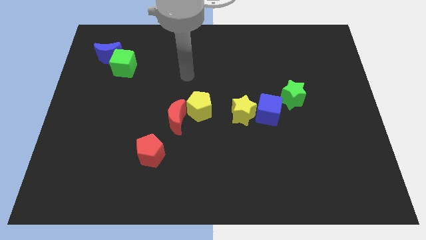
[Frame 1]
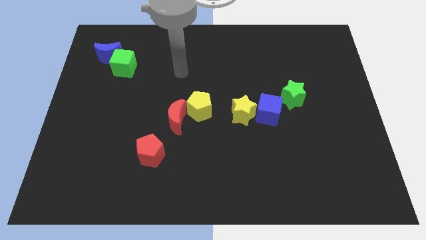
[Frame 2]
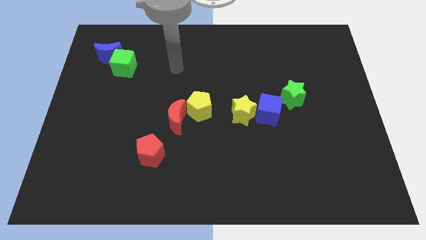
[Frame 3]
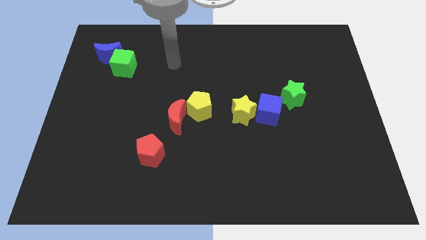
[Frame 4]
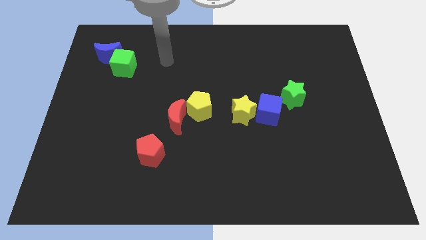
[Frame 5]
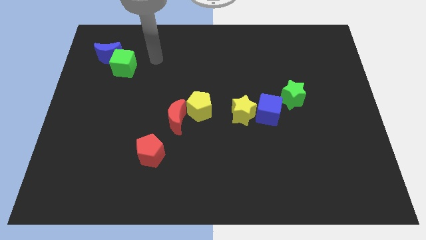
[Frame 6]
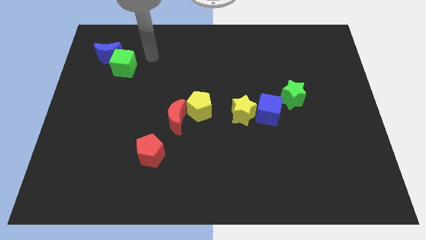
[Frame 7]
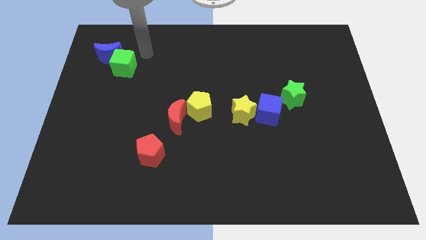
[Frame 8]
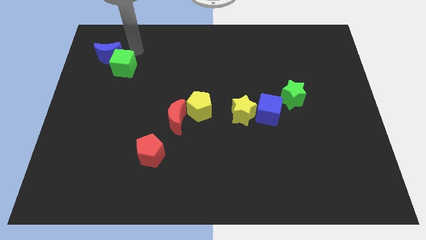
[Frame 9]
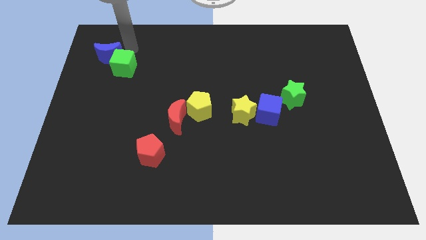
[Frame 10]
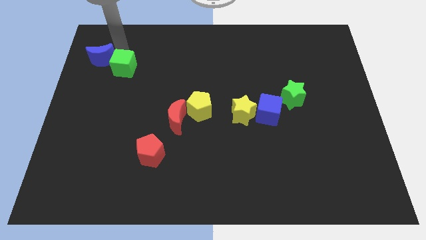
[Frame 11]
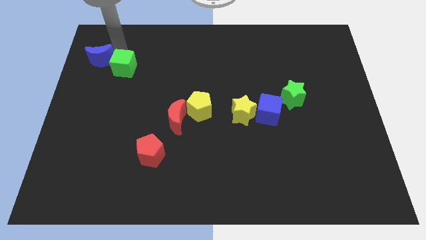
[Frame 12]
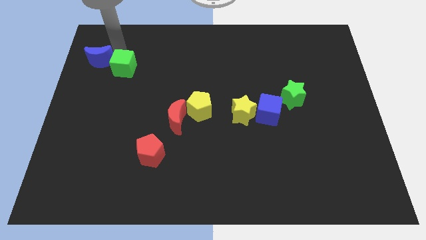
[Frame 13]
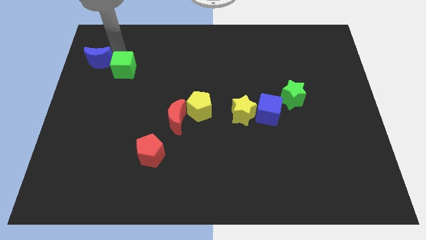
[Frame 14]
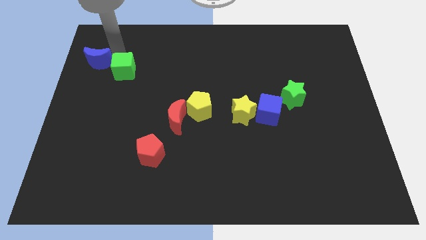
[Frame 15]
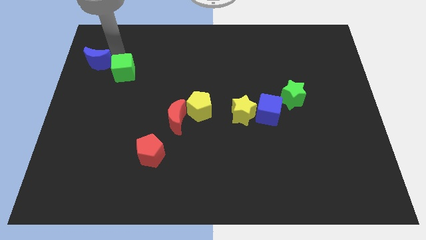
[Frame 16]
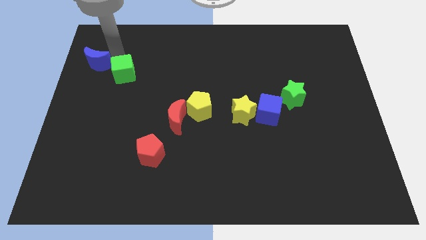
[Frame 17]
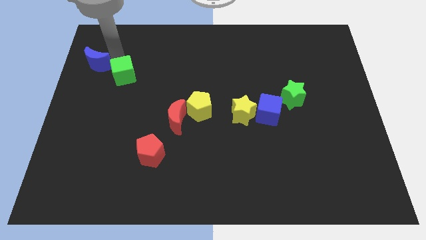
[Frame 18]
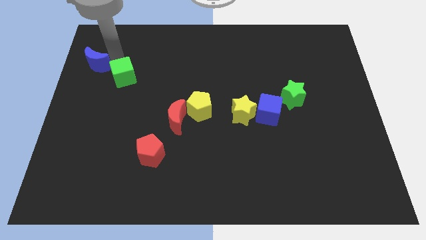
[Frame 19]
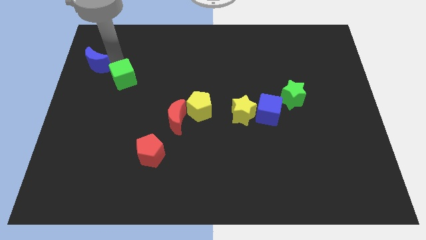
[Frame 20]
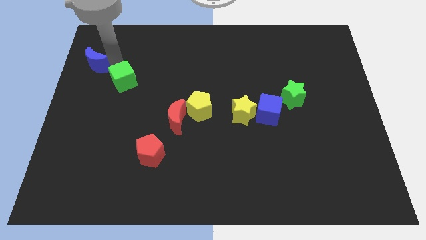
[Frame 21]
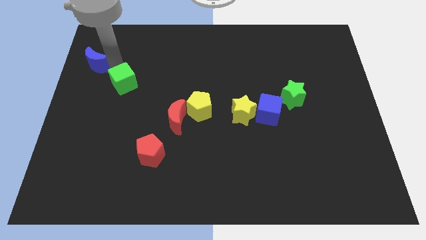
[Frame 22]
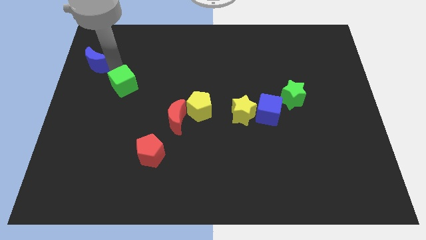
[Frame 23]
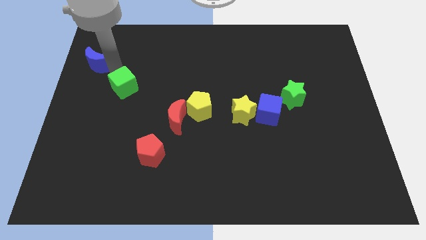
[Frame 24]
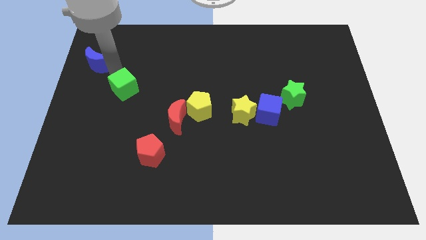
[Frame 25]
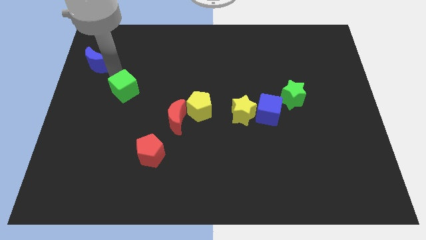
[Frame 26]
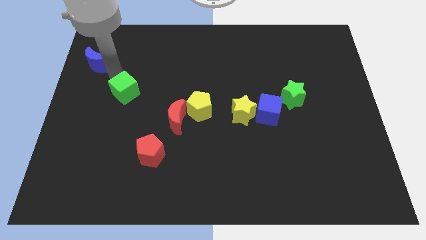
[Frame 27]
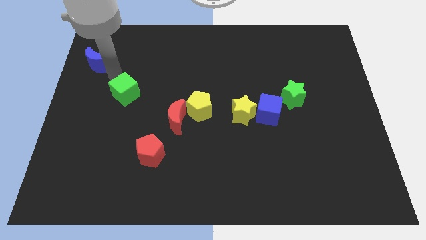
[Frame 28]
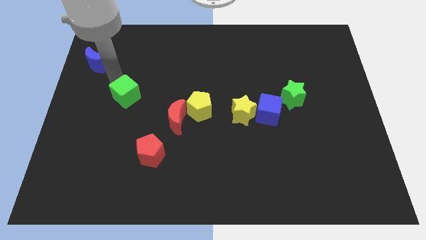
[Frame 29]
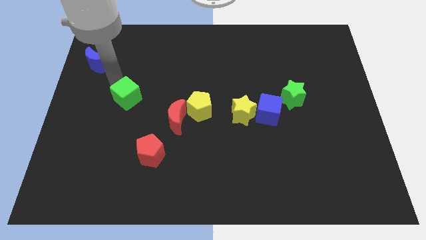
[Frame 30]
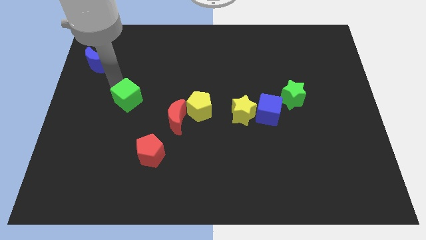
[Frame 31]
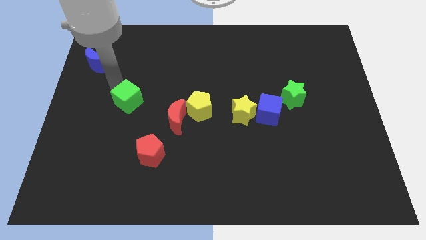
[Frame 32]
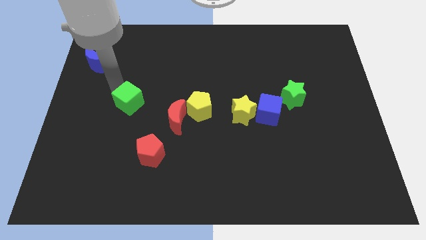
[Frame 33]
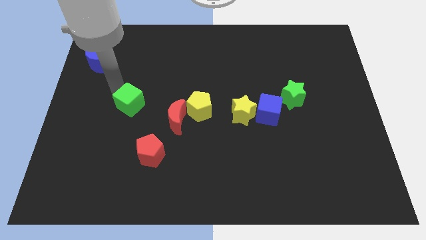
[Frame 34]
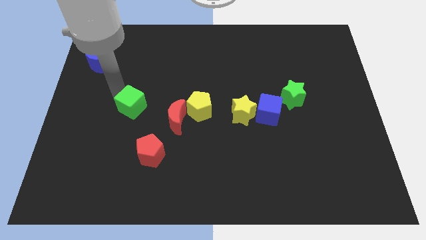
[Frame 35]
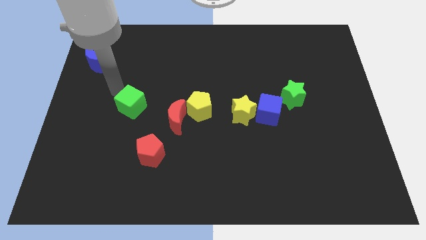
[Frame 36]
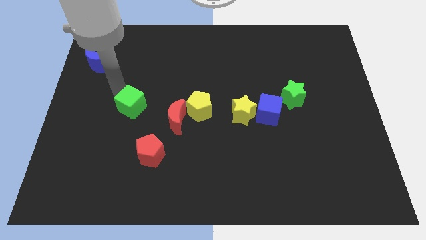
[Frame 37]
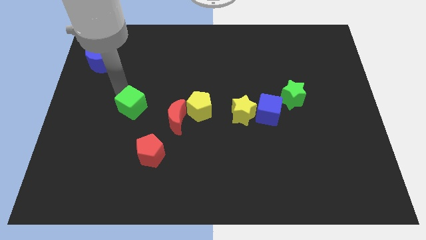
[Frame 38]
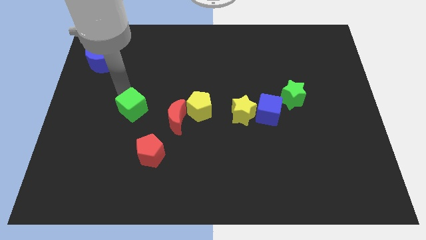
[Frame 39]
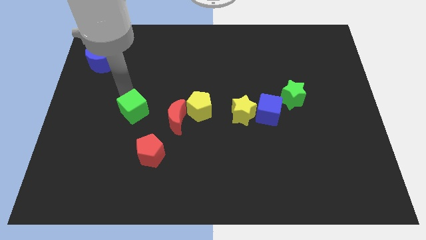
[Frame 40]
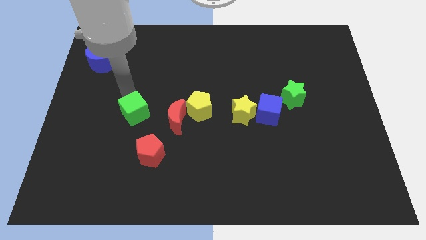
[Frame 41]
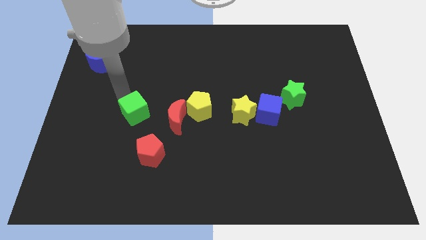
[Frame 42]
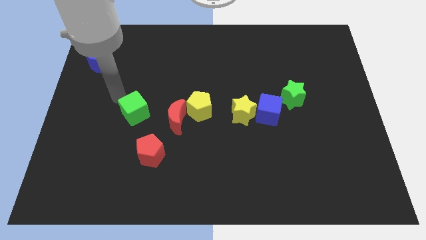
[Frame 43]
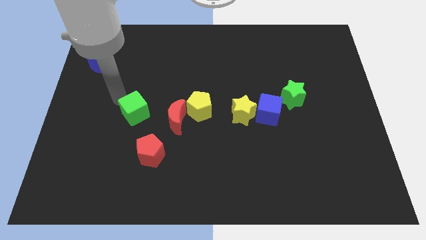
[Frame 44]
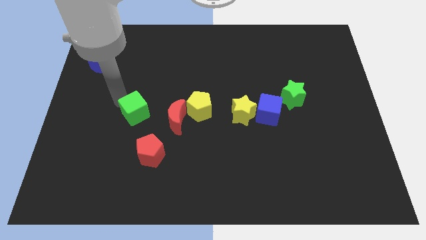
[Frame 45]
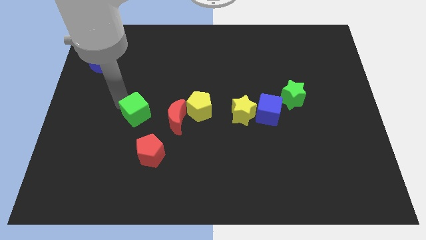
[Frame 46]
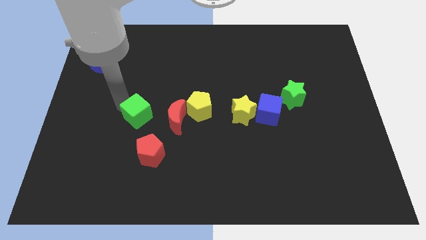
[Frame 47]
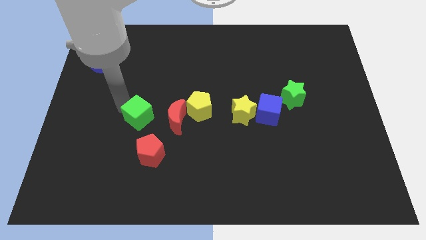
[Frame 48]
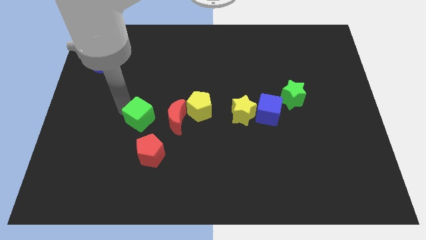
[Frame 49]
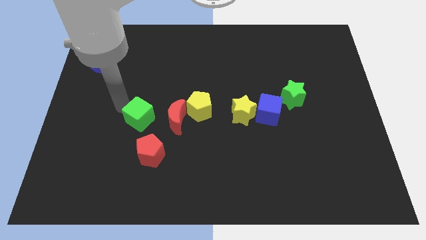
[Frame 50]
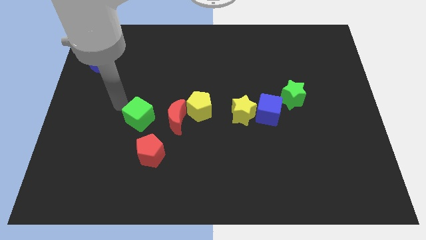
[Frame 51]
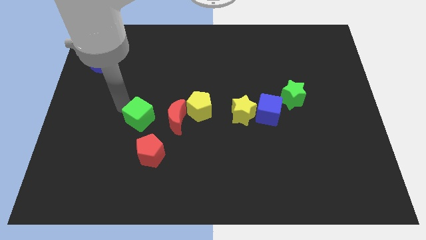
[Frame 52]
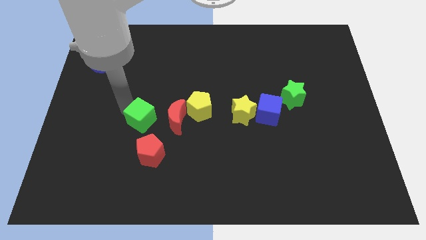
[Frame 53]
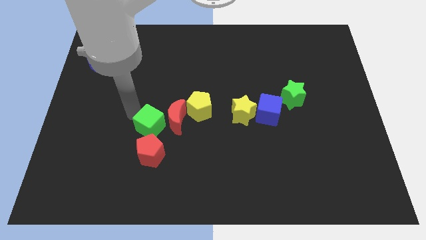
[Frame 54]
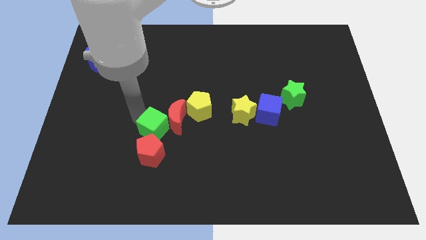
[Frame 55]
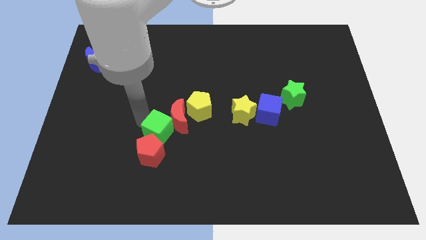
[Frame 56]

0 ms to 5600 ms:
slide the green cube down and to the right

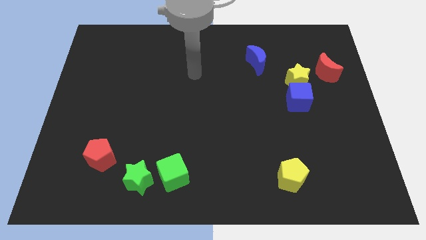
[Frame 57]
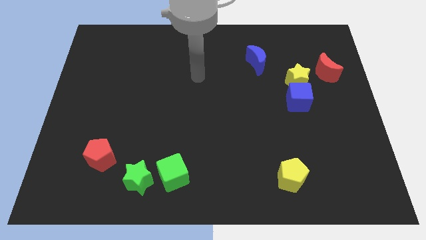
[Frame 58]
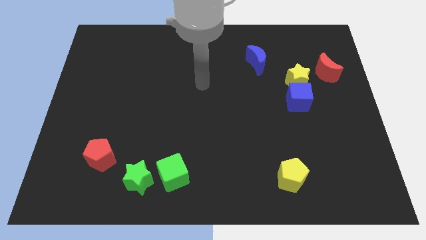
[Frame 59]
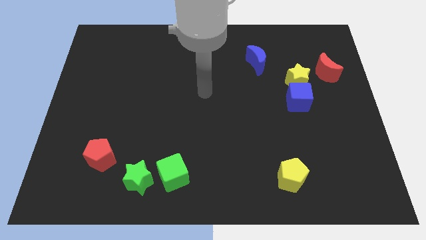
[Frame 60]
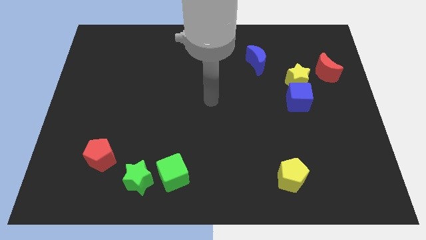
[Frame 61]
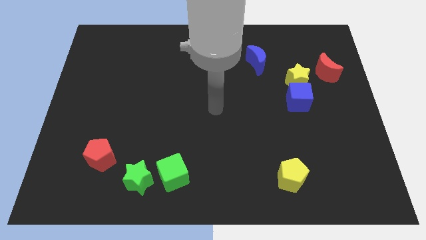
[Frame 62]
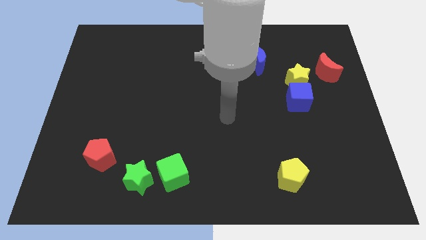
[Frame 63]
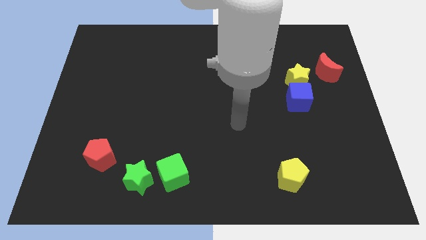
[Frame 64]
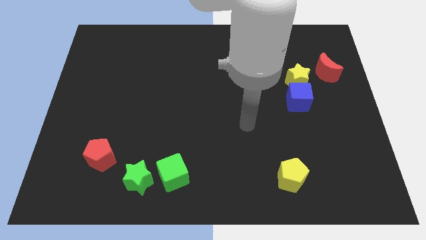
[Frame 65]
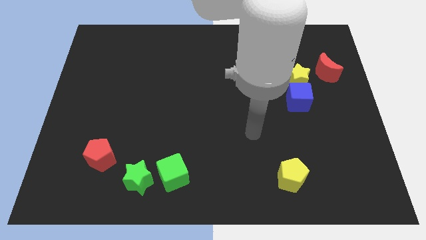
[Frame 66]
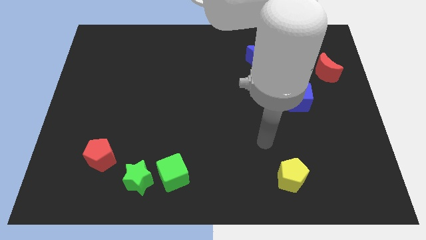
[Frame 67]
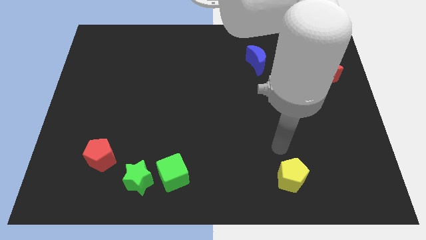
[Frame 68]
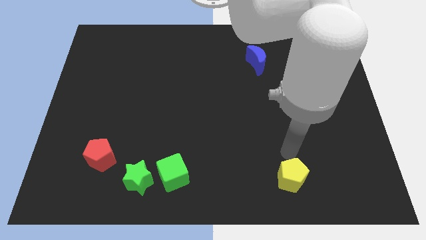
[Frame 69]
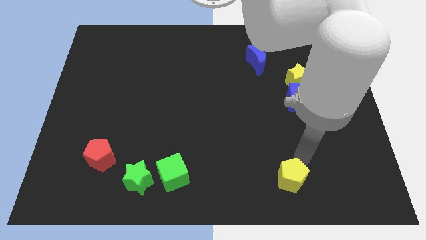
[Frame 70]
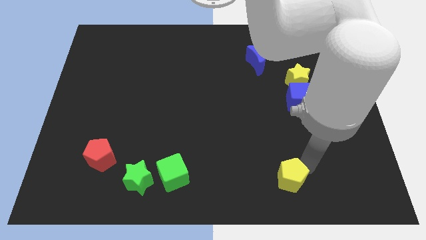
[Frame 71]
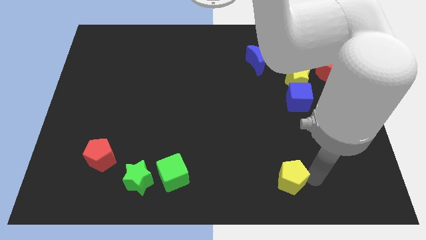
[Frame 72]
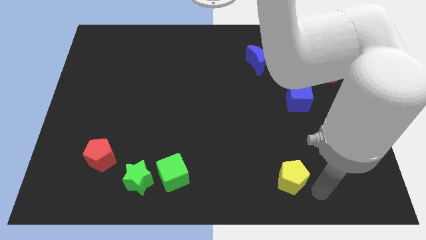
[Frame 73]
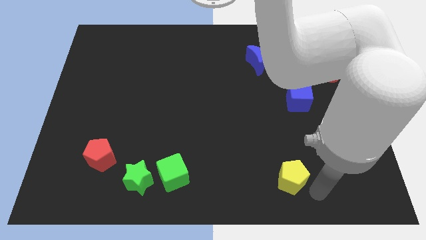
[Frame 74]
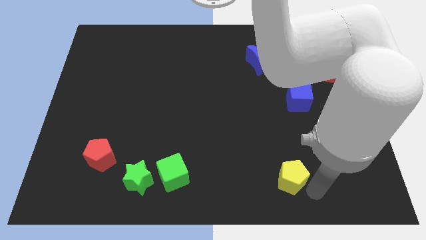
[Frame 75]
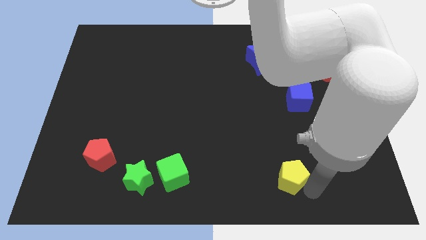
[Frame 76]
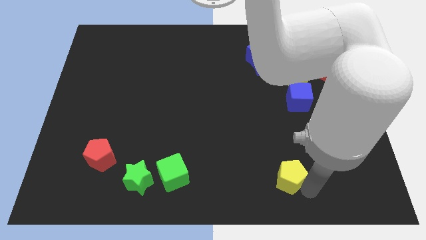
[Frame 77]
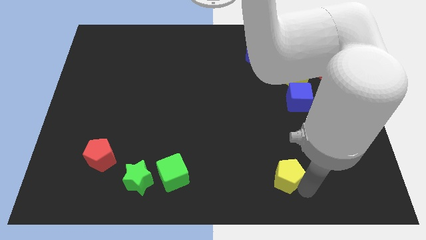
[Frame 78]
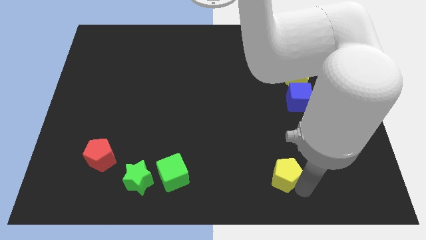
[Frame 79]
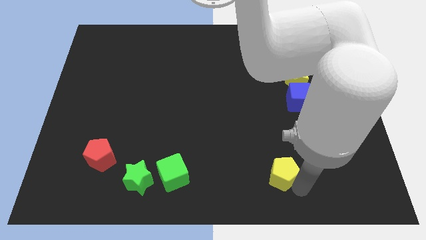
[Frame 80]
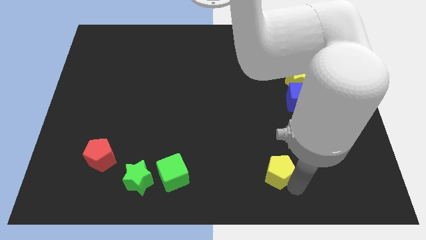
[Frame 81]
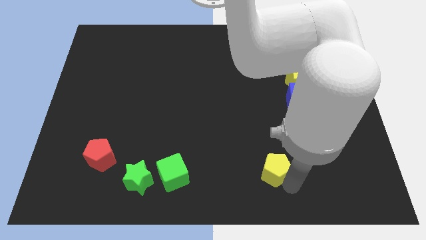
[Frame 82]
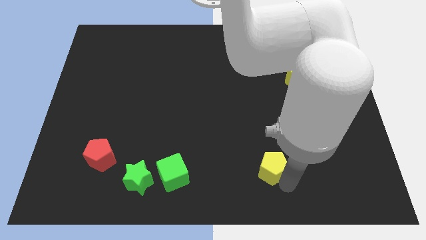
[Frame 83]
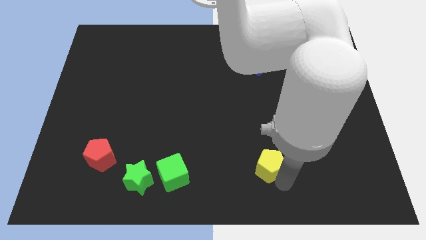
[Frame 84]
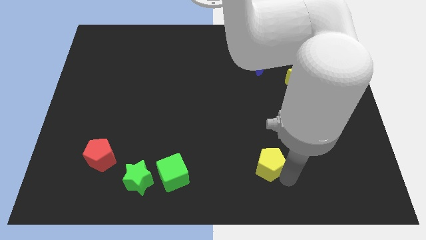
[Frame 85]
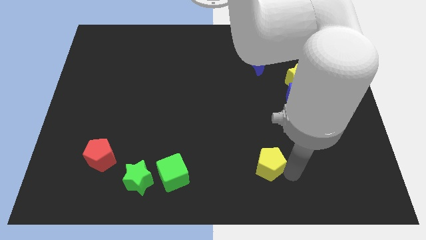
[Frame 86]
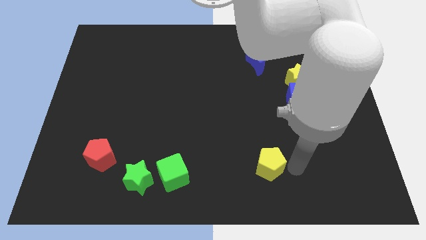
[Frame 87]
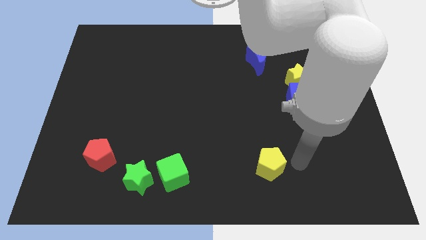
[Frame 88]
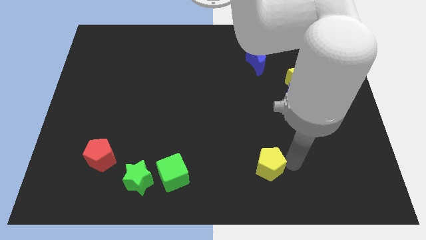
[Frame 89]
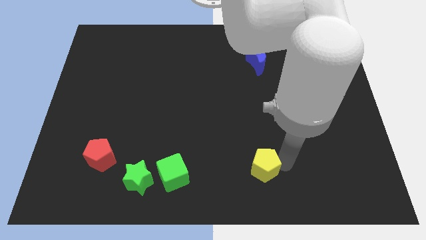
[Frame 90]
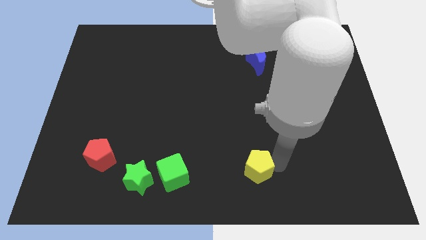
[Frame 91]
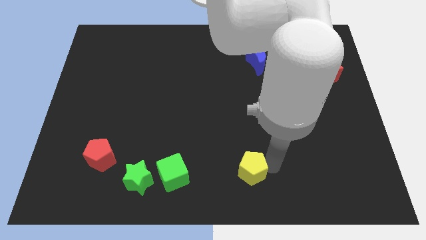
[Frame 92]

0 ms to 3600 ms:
move the yellow pentagon to the left a little
